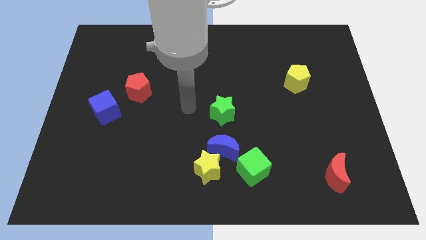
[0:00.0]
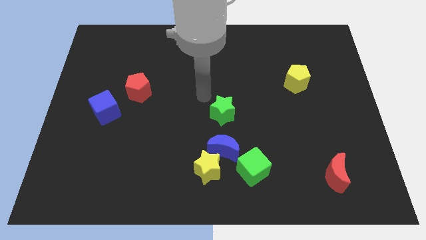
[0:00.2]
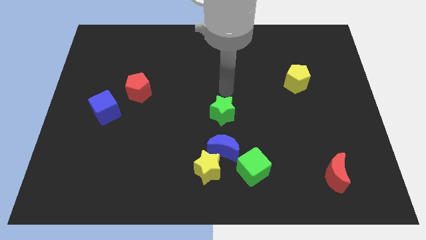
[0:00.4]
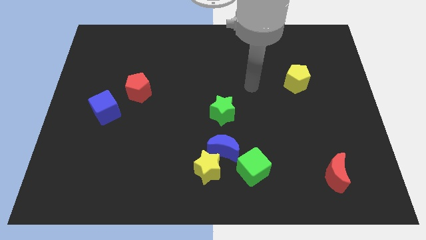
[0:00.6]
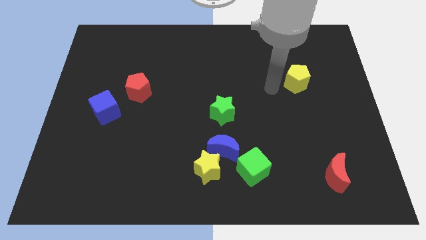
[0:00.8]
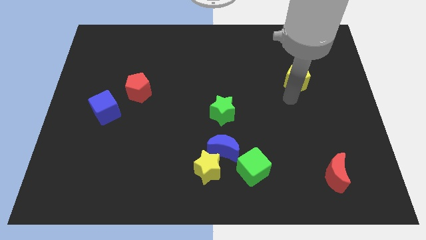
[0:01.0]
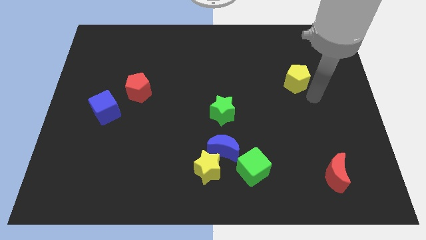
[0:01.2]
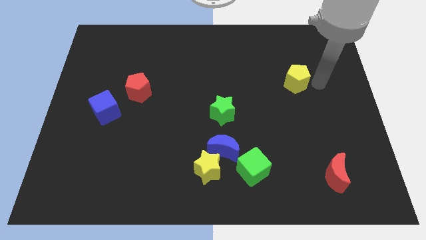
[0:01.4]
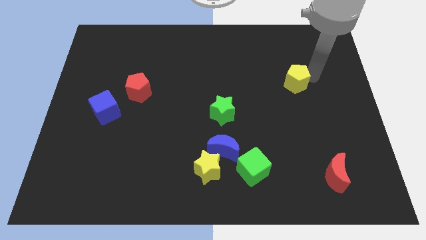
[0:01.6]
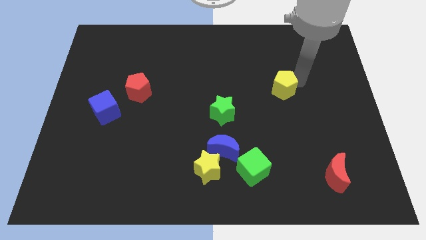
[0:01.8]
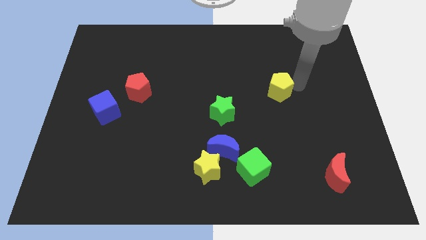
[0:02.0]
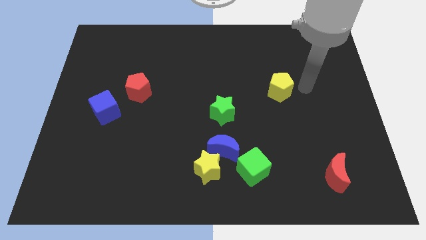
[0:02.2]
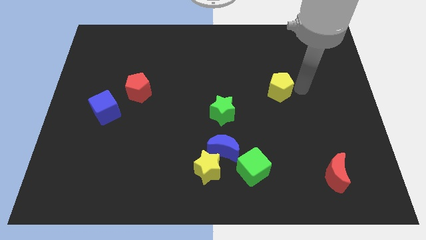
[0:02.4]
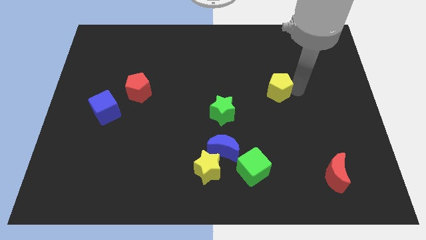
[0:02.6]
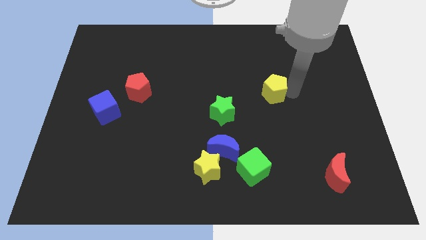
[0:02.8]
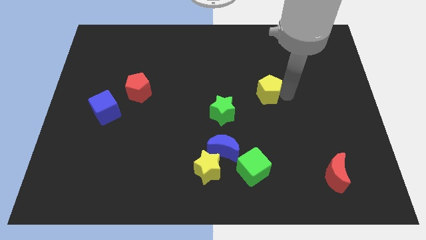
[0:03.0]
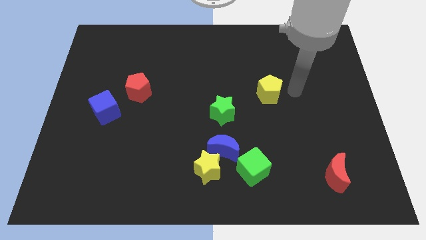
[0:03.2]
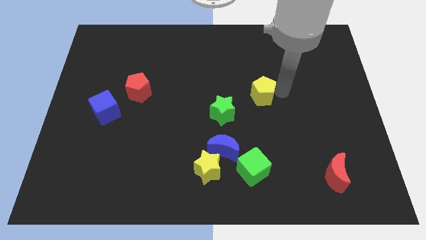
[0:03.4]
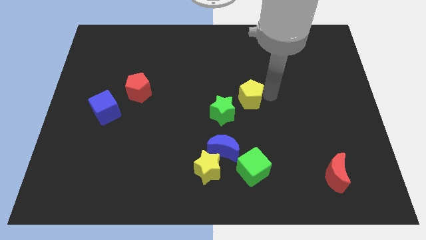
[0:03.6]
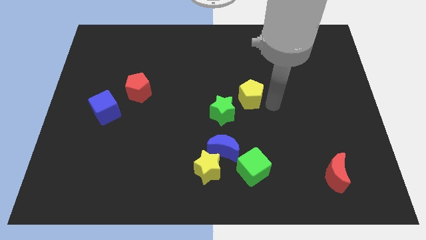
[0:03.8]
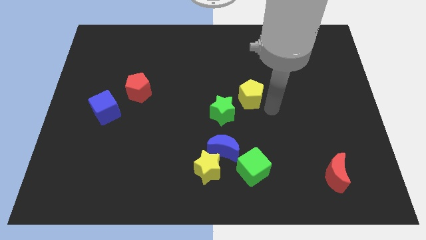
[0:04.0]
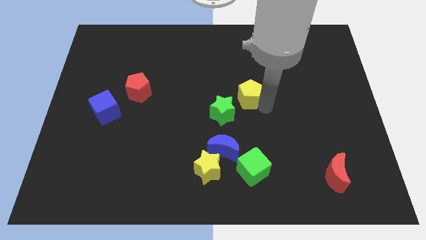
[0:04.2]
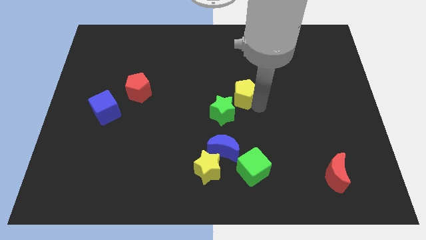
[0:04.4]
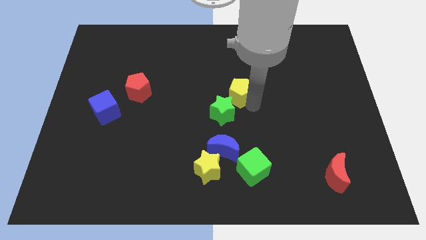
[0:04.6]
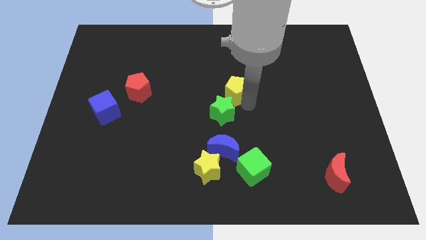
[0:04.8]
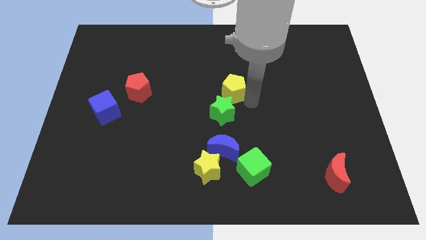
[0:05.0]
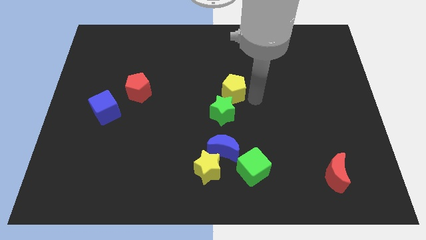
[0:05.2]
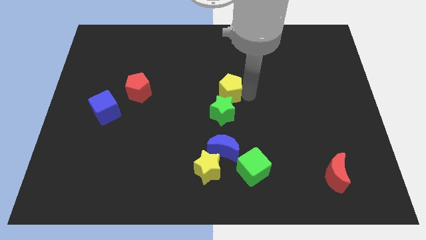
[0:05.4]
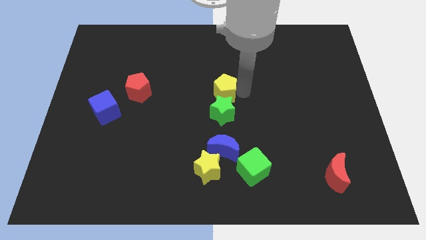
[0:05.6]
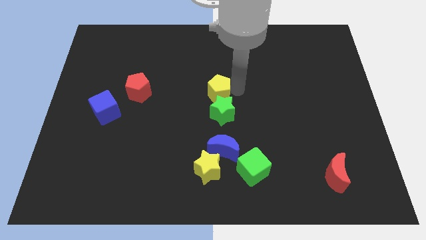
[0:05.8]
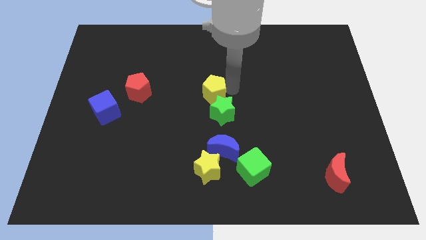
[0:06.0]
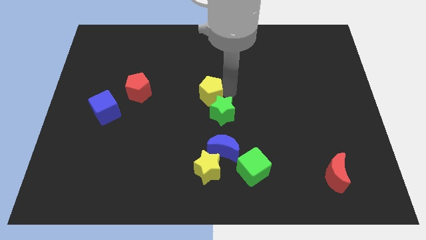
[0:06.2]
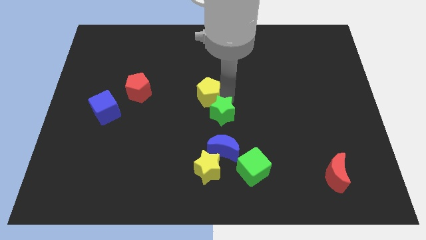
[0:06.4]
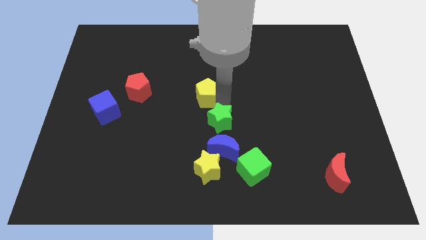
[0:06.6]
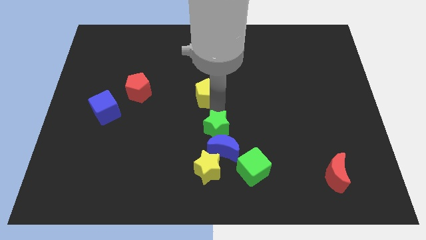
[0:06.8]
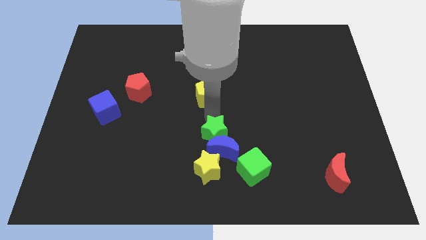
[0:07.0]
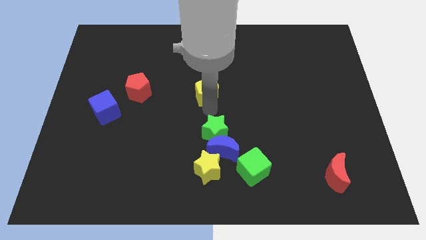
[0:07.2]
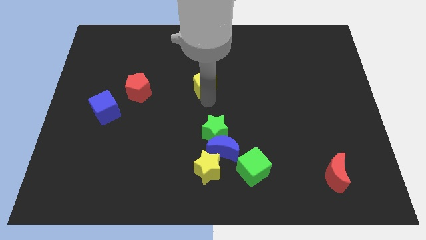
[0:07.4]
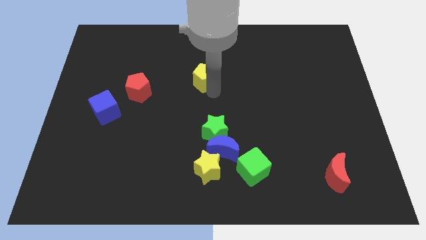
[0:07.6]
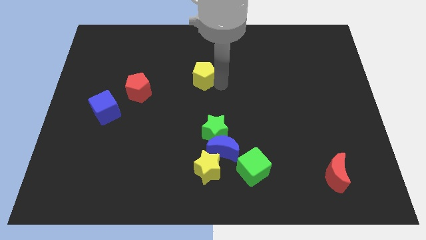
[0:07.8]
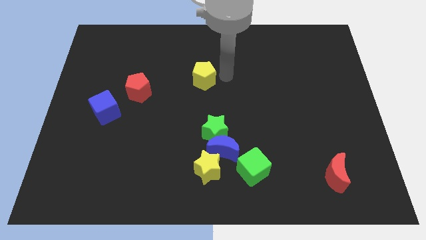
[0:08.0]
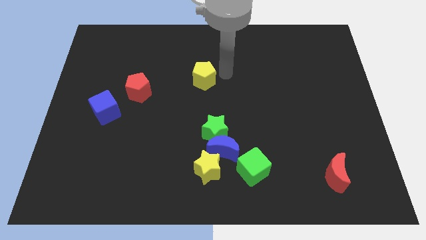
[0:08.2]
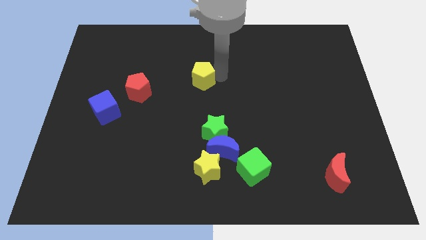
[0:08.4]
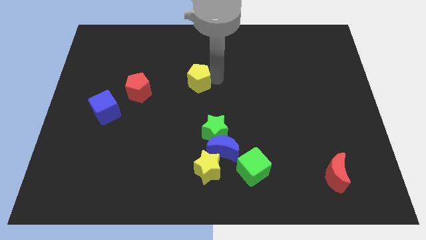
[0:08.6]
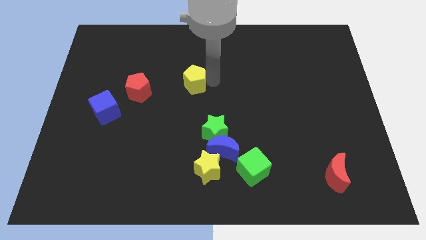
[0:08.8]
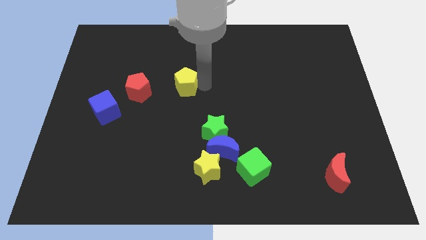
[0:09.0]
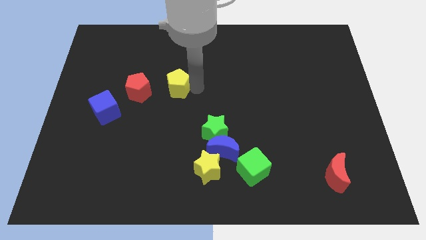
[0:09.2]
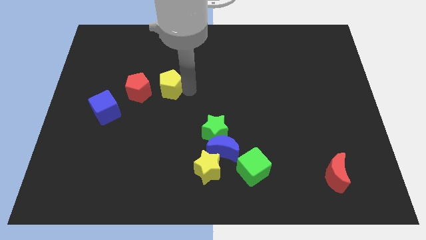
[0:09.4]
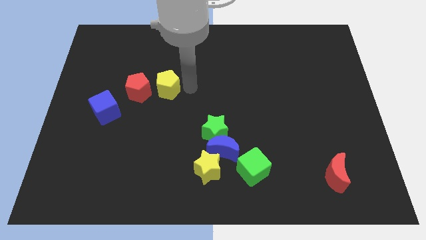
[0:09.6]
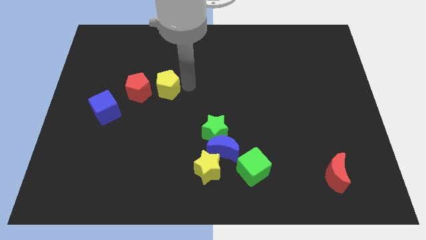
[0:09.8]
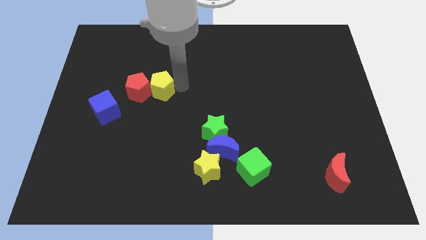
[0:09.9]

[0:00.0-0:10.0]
push the yellow pentagon to the red pentagon

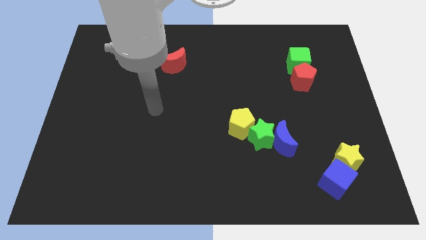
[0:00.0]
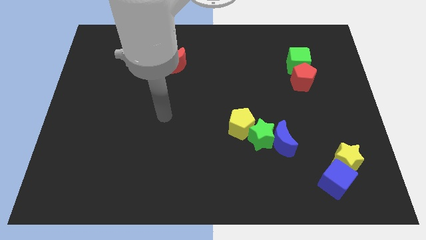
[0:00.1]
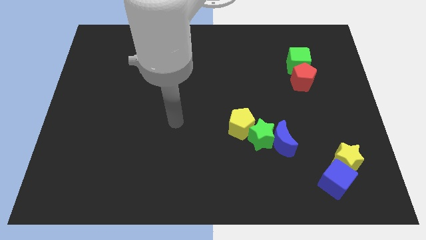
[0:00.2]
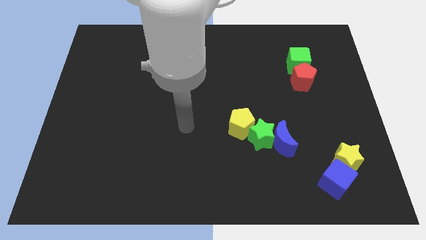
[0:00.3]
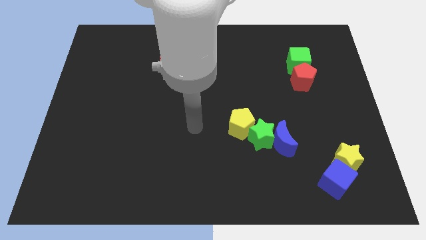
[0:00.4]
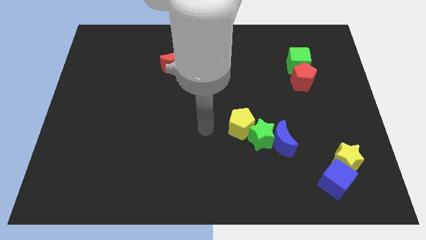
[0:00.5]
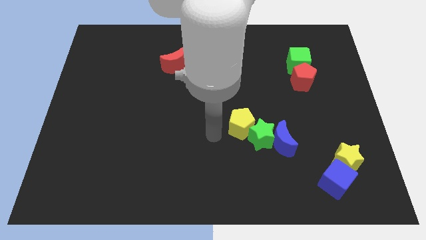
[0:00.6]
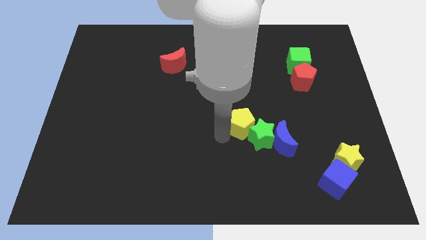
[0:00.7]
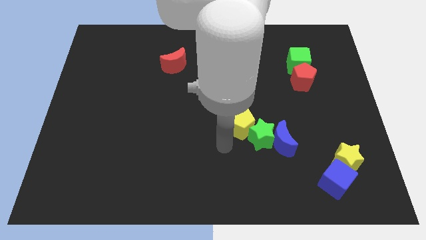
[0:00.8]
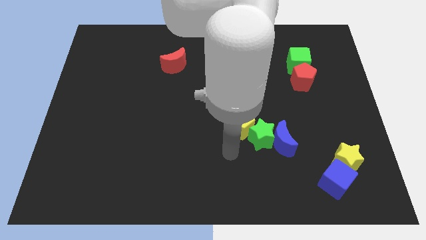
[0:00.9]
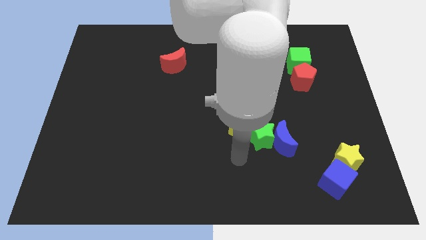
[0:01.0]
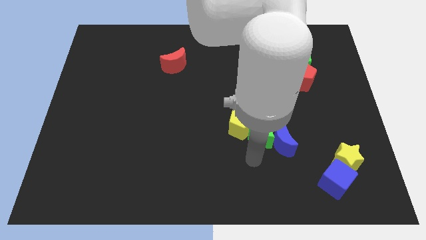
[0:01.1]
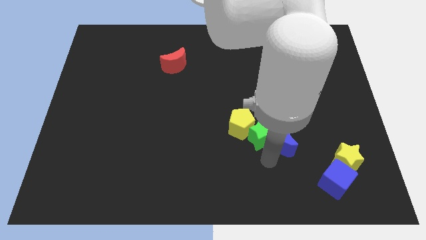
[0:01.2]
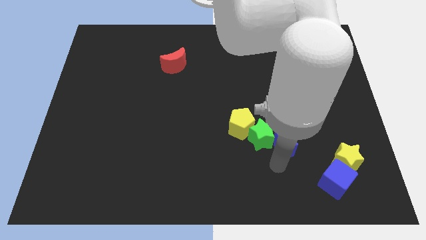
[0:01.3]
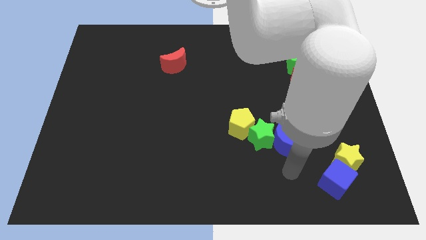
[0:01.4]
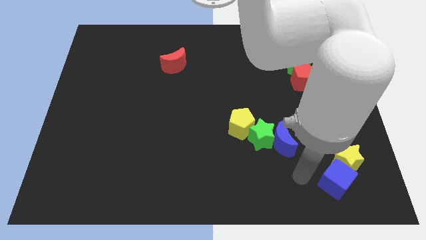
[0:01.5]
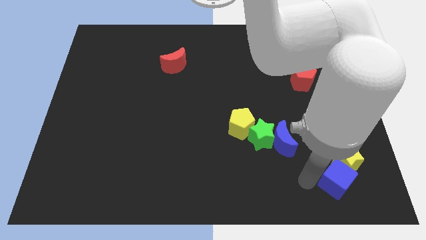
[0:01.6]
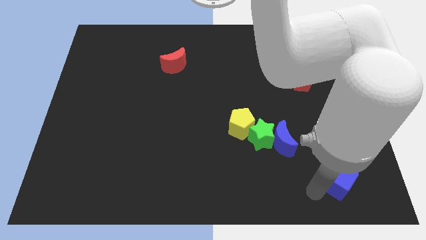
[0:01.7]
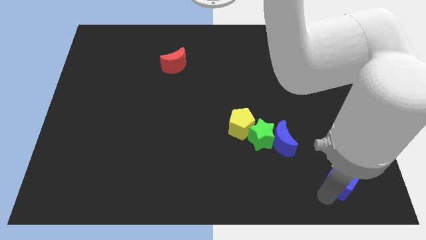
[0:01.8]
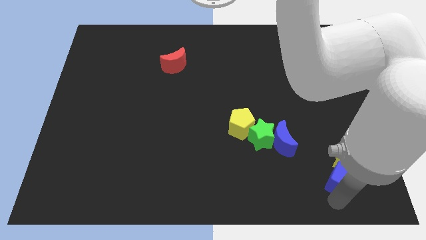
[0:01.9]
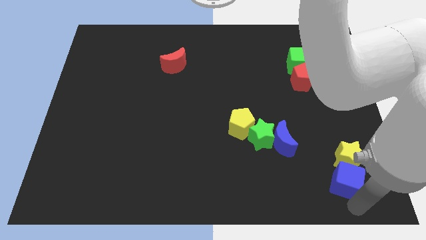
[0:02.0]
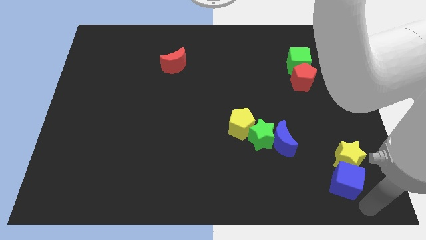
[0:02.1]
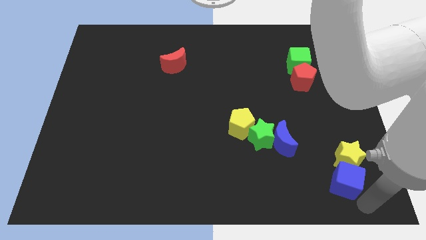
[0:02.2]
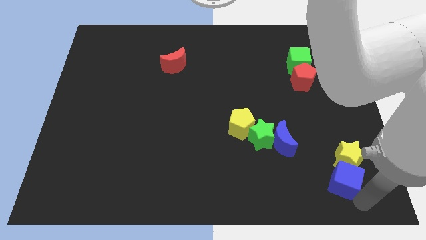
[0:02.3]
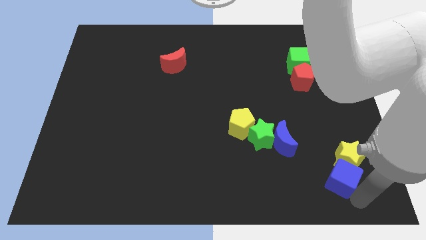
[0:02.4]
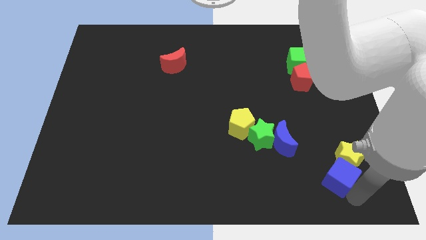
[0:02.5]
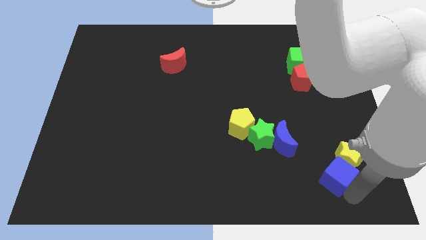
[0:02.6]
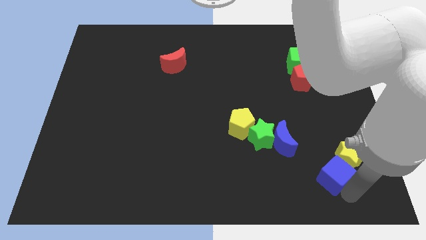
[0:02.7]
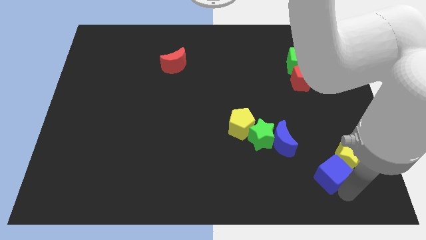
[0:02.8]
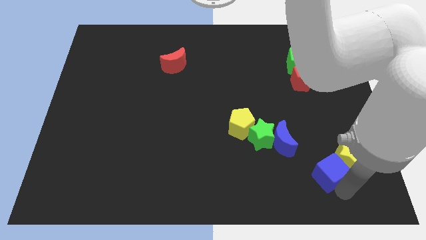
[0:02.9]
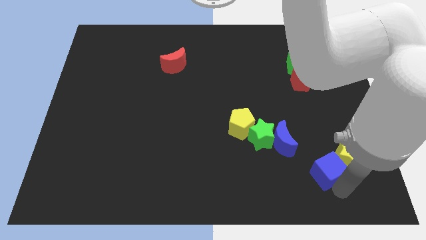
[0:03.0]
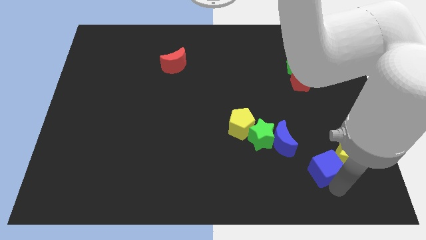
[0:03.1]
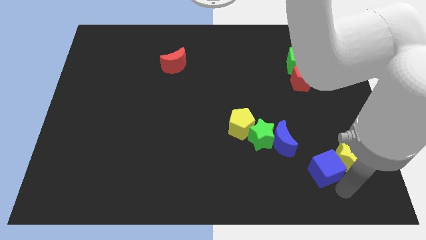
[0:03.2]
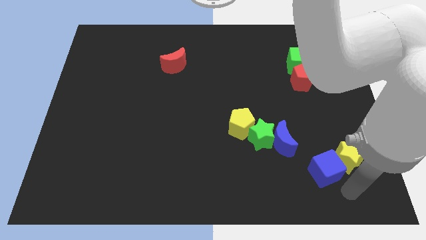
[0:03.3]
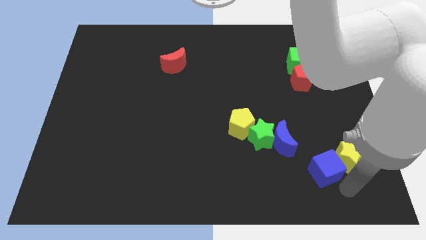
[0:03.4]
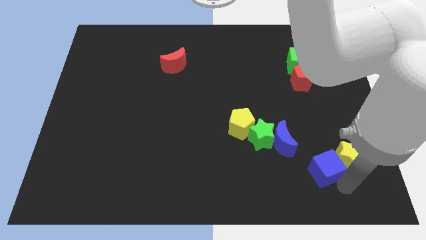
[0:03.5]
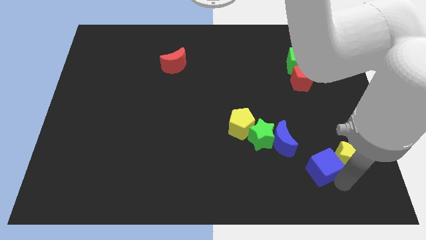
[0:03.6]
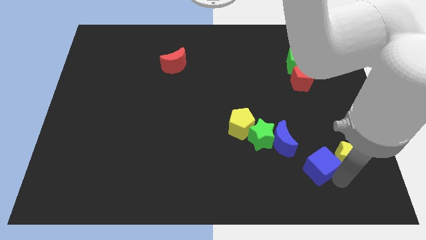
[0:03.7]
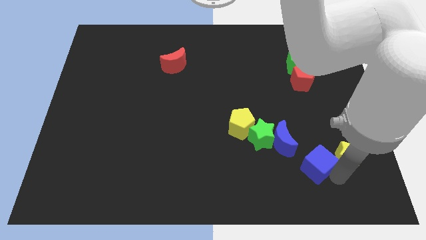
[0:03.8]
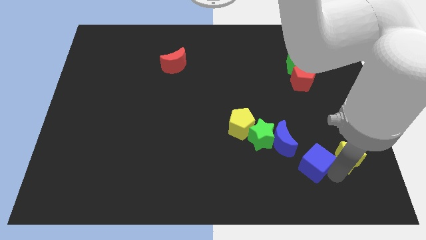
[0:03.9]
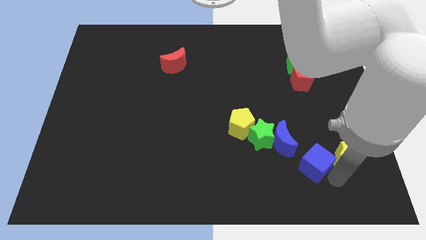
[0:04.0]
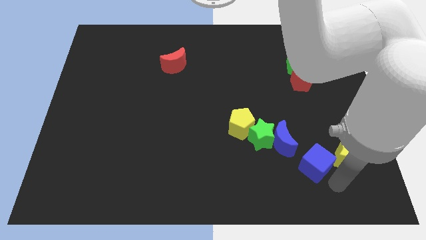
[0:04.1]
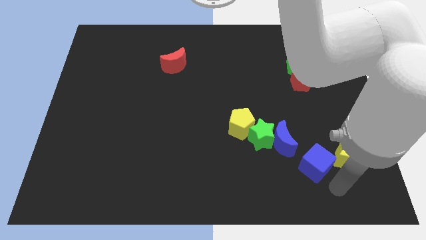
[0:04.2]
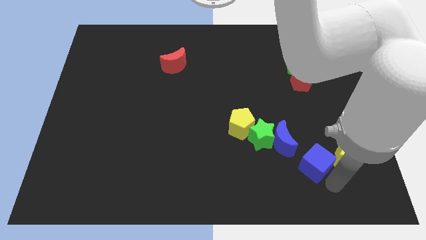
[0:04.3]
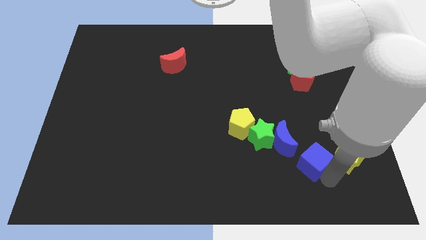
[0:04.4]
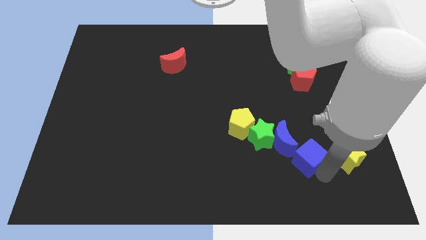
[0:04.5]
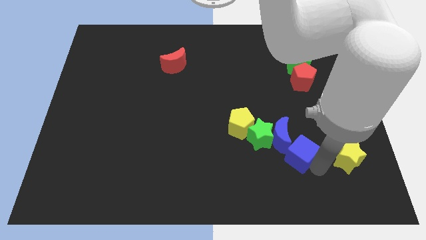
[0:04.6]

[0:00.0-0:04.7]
push the blue cube towards the blue moon
